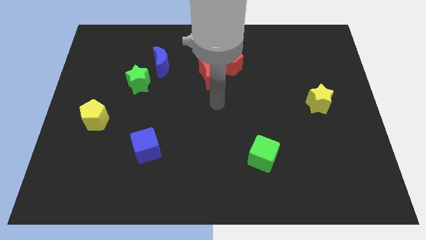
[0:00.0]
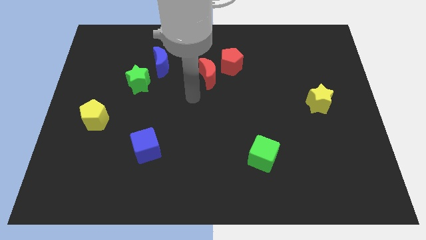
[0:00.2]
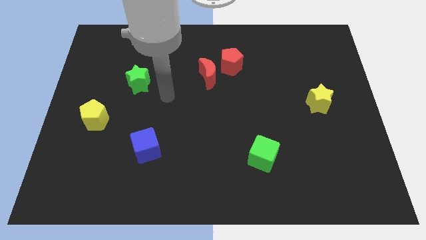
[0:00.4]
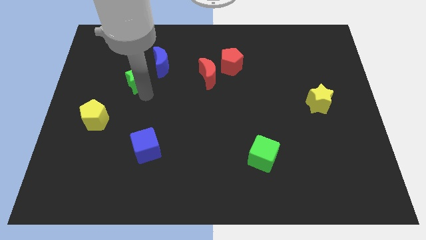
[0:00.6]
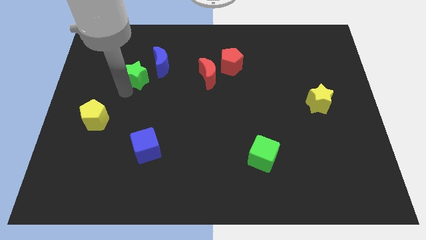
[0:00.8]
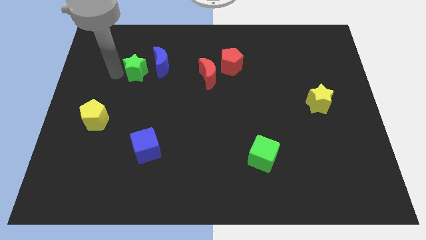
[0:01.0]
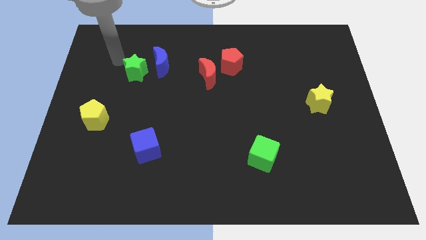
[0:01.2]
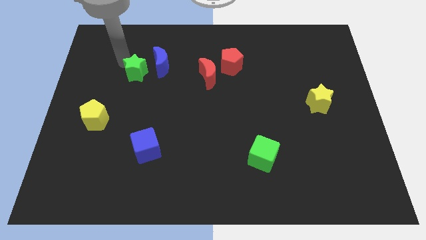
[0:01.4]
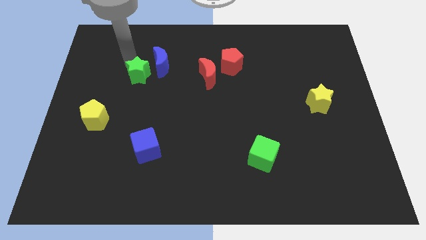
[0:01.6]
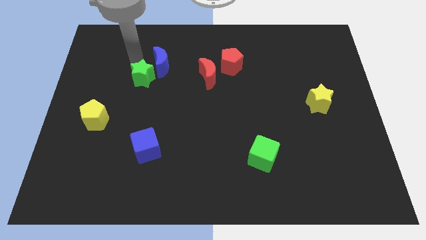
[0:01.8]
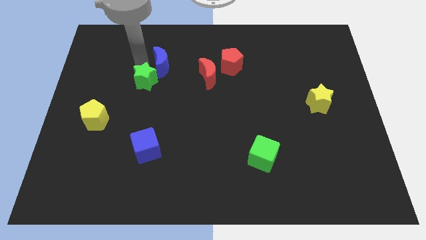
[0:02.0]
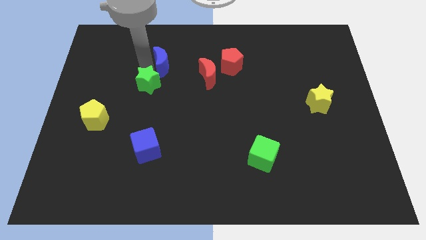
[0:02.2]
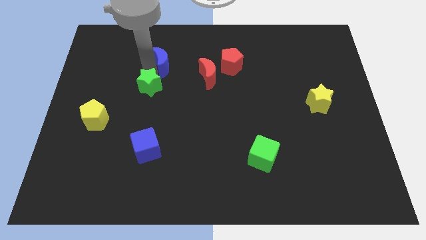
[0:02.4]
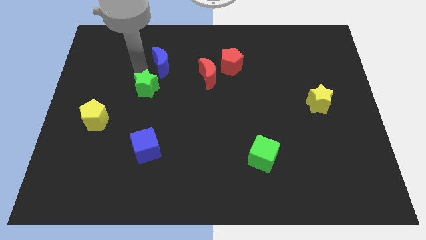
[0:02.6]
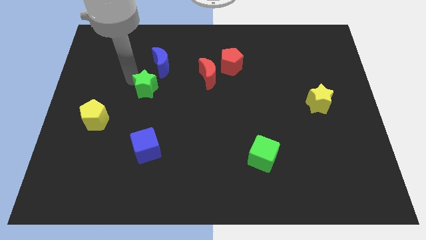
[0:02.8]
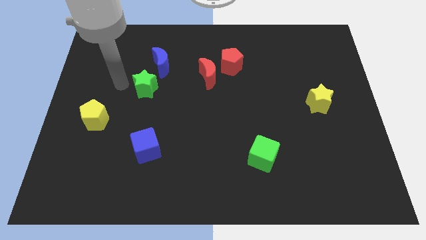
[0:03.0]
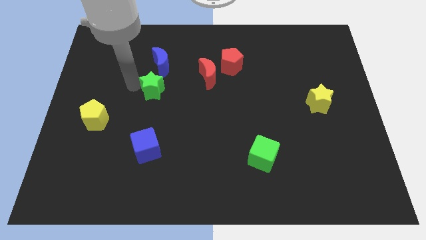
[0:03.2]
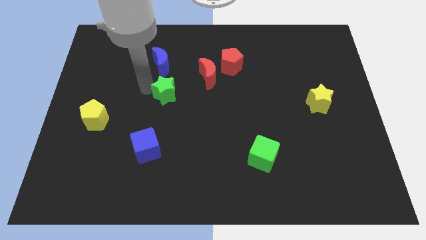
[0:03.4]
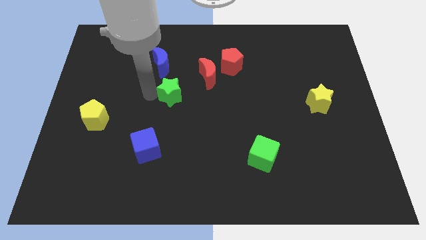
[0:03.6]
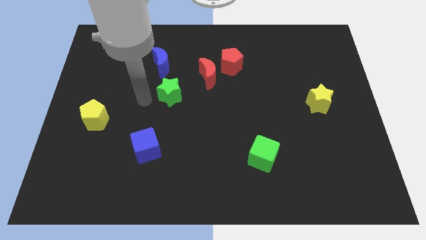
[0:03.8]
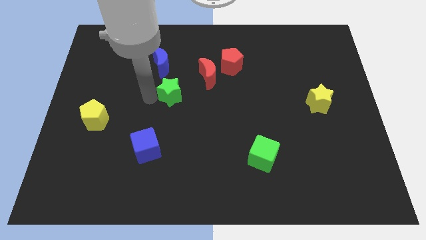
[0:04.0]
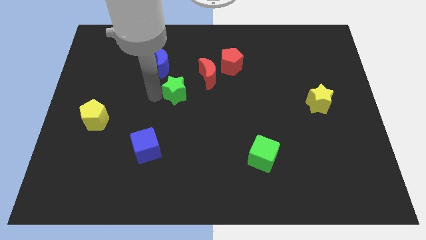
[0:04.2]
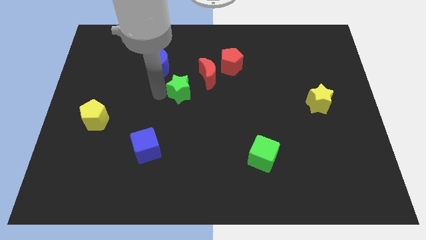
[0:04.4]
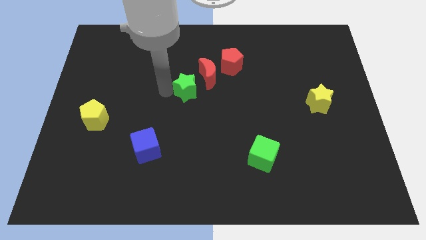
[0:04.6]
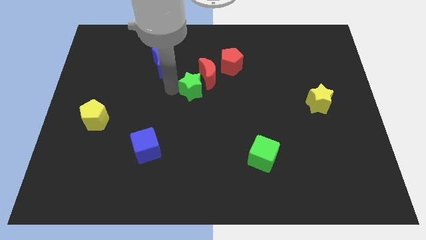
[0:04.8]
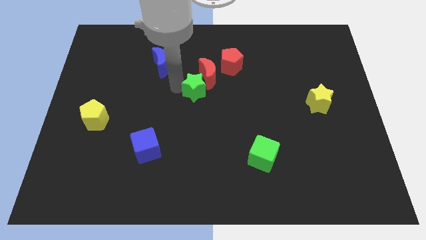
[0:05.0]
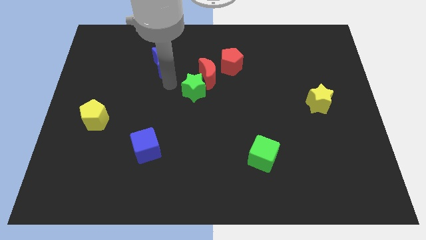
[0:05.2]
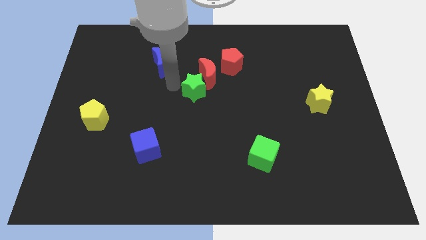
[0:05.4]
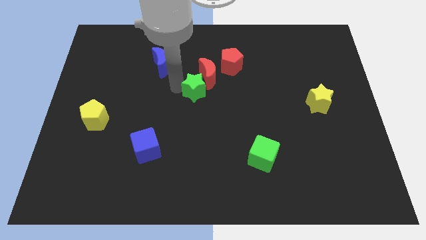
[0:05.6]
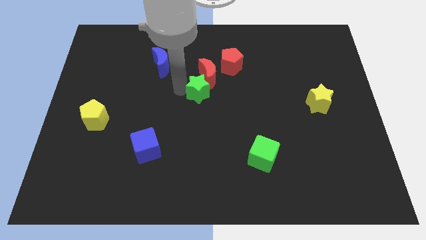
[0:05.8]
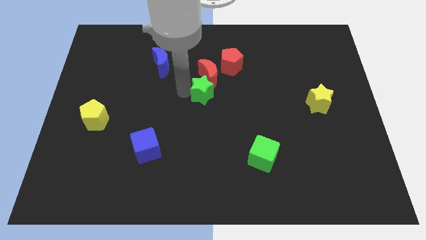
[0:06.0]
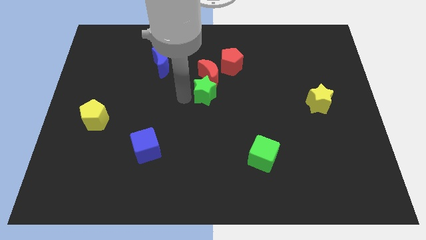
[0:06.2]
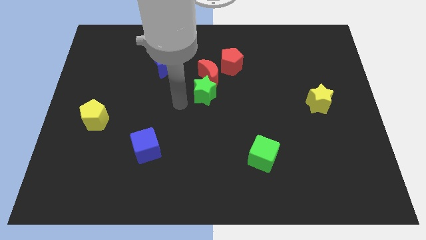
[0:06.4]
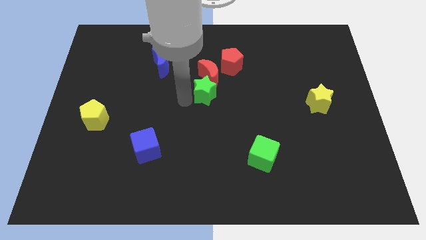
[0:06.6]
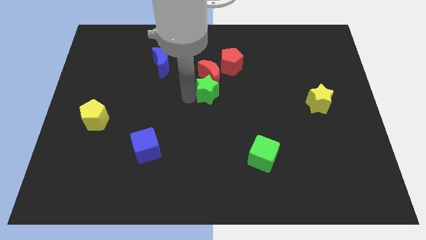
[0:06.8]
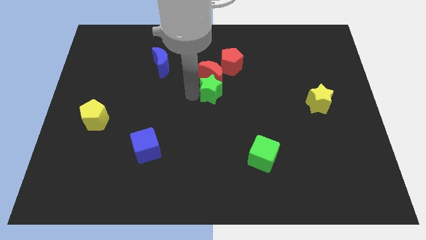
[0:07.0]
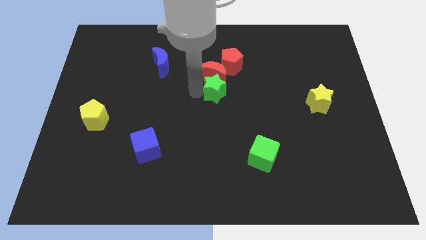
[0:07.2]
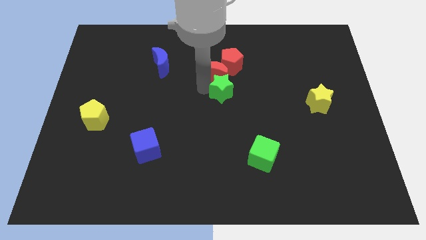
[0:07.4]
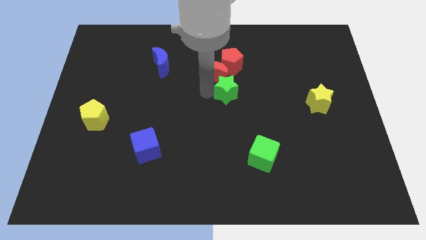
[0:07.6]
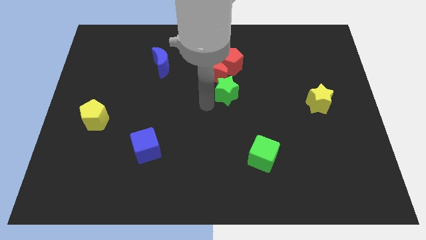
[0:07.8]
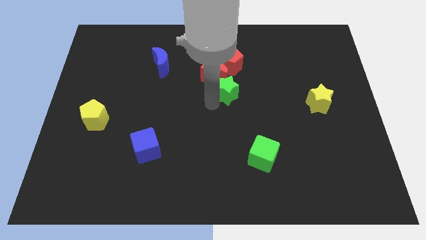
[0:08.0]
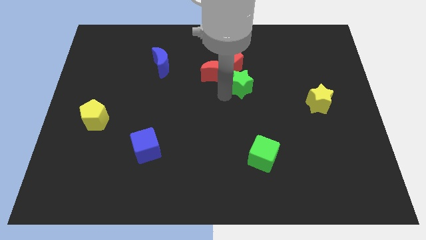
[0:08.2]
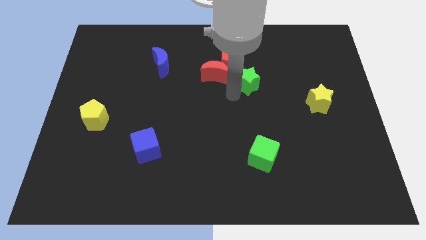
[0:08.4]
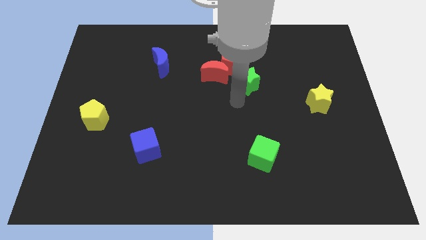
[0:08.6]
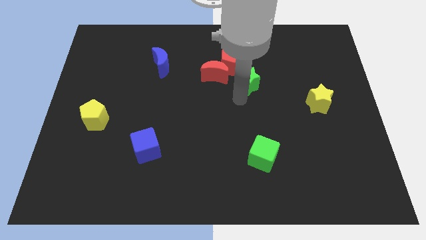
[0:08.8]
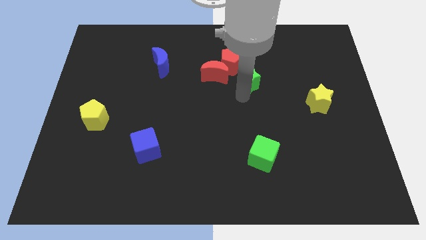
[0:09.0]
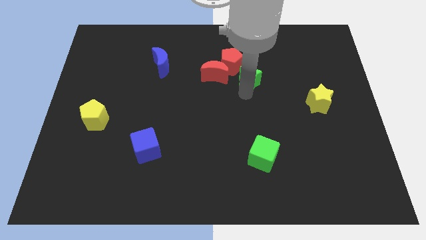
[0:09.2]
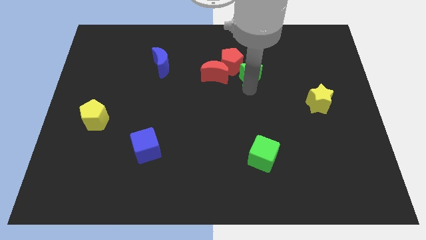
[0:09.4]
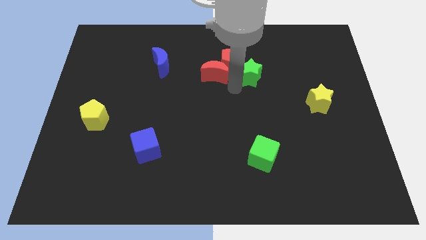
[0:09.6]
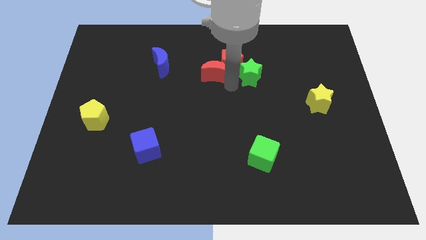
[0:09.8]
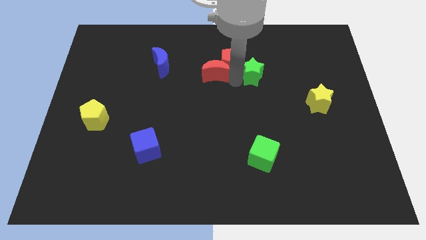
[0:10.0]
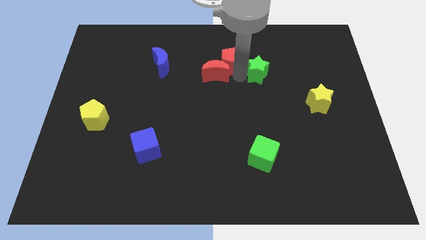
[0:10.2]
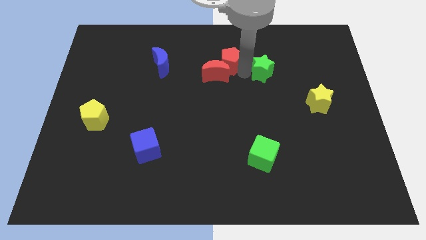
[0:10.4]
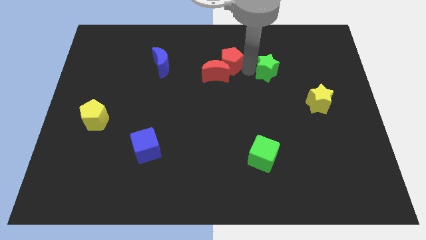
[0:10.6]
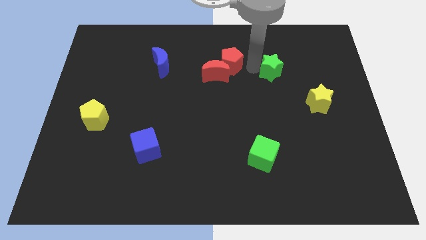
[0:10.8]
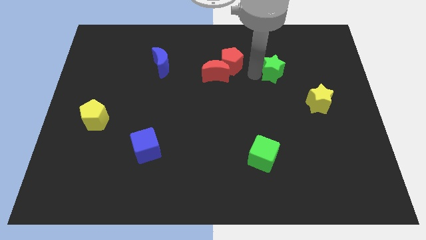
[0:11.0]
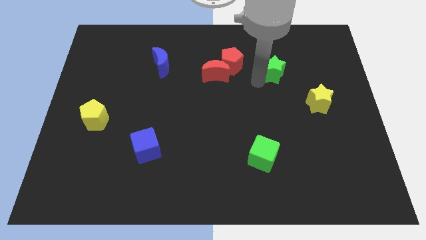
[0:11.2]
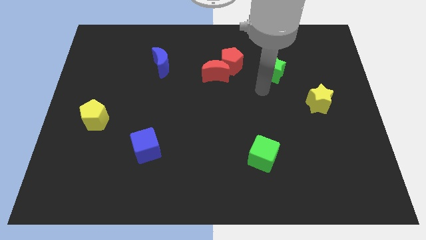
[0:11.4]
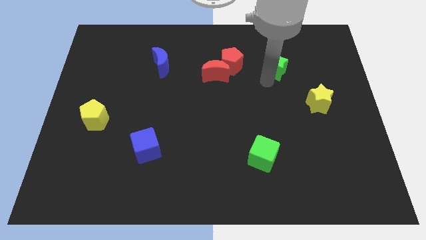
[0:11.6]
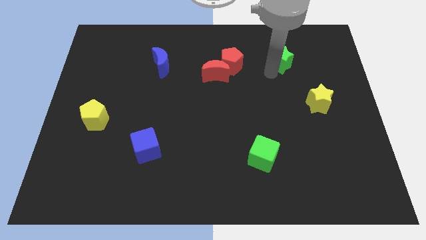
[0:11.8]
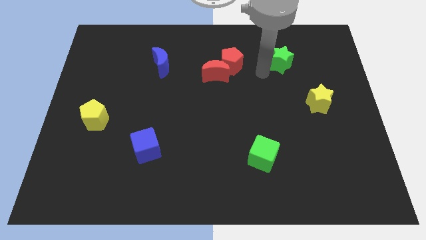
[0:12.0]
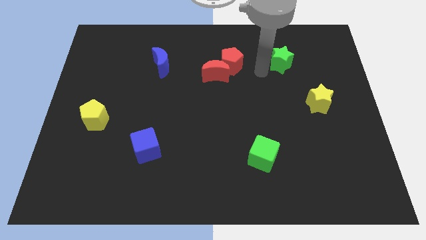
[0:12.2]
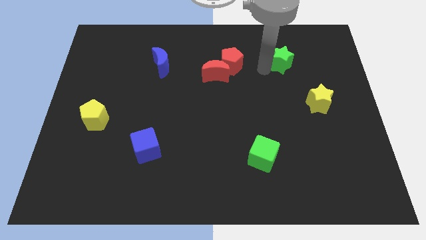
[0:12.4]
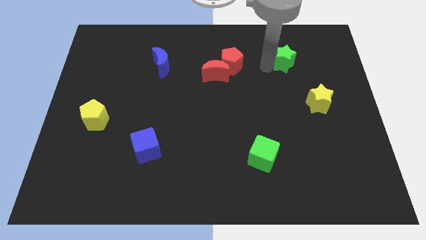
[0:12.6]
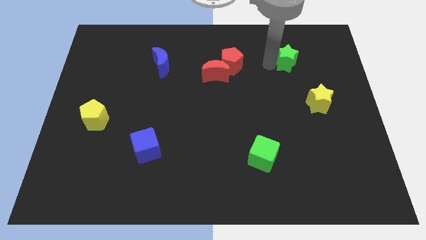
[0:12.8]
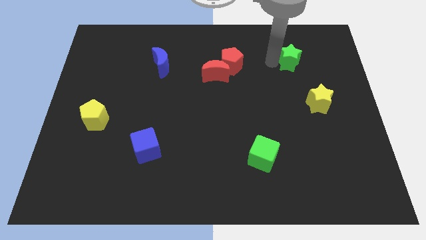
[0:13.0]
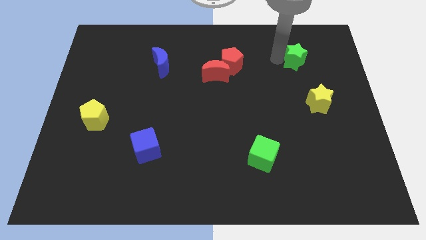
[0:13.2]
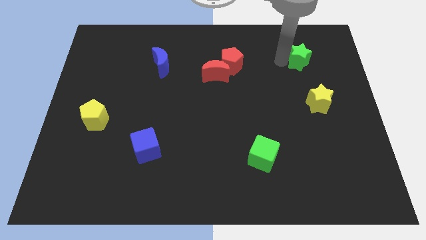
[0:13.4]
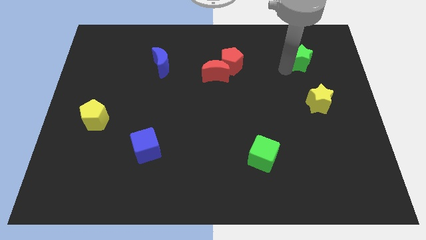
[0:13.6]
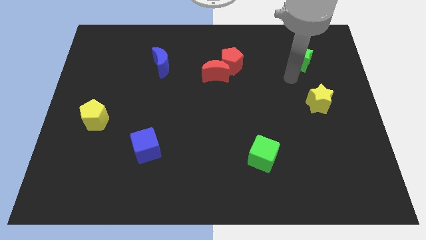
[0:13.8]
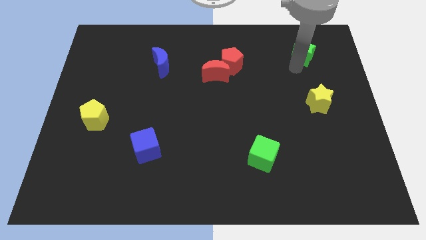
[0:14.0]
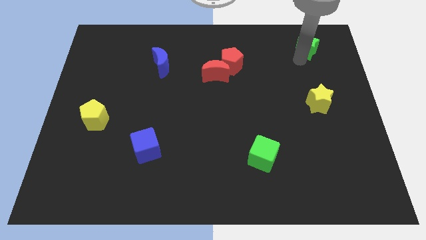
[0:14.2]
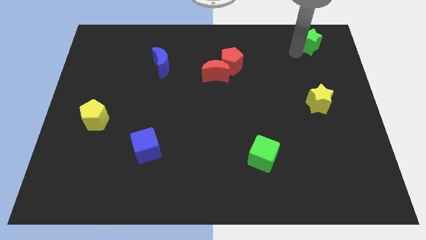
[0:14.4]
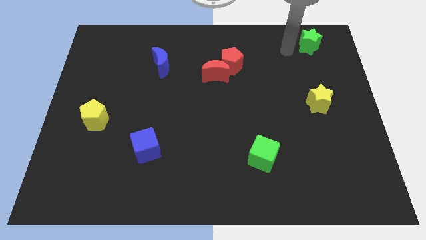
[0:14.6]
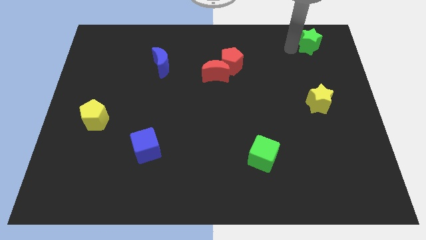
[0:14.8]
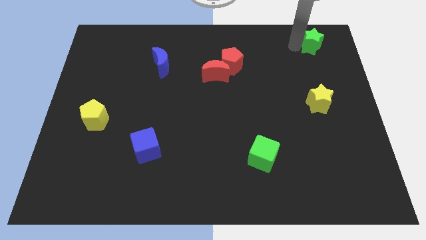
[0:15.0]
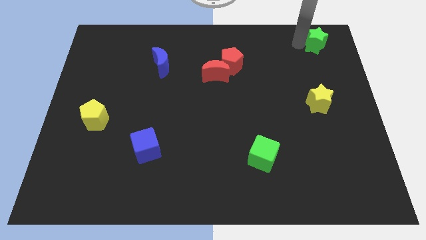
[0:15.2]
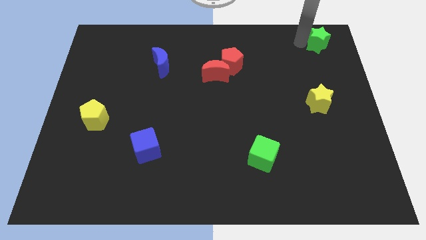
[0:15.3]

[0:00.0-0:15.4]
move the green star to the upper right corner
